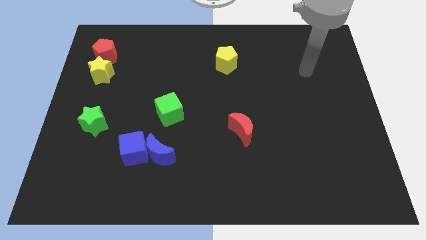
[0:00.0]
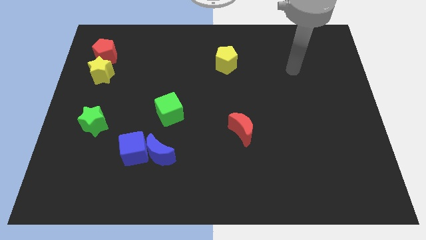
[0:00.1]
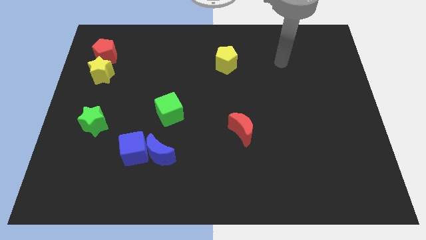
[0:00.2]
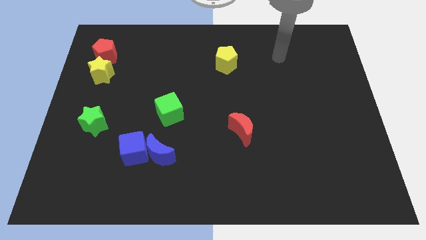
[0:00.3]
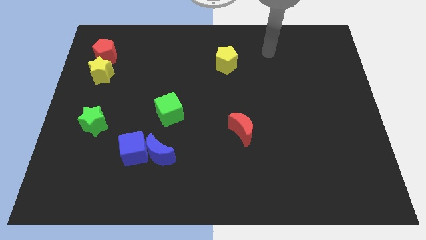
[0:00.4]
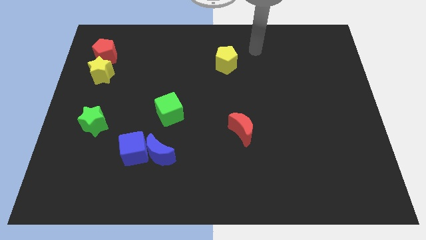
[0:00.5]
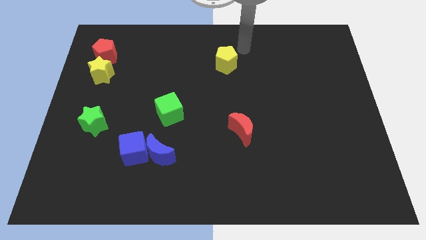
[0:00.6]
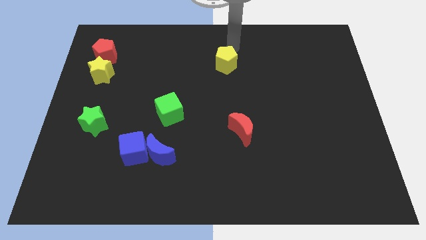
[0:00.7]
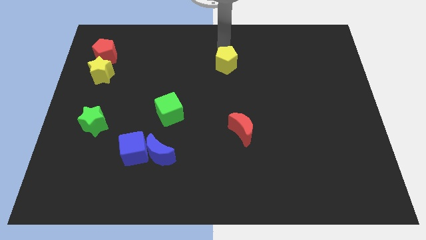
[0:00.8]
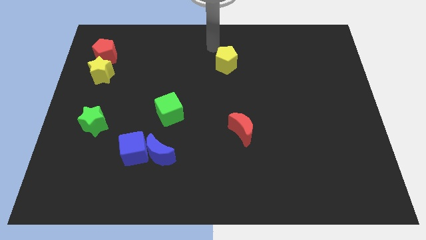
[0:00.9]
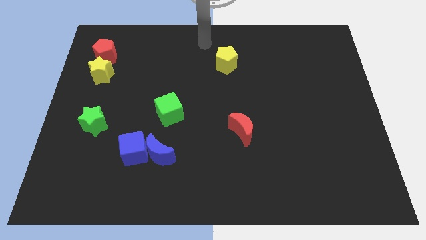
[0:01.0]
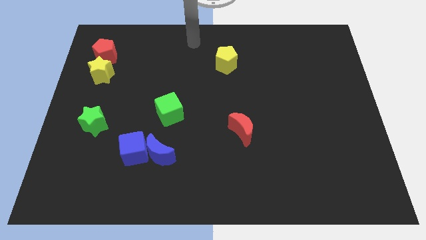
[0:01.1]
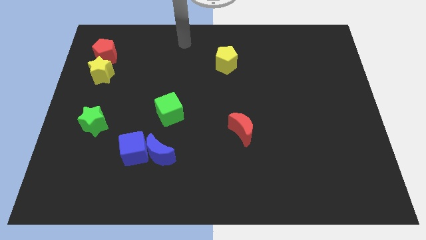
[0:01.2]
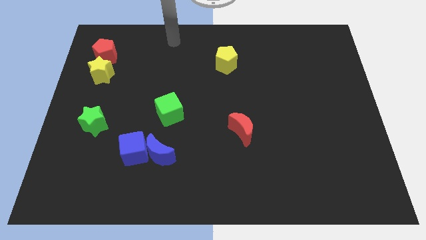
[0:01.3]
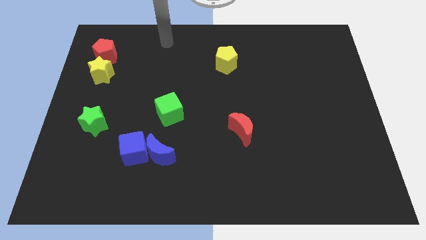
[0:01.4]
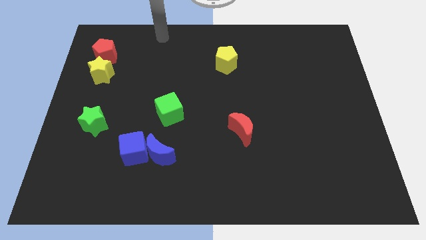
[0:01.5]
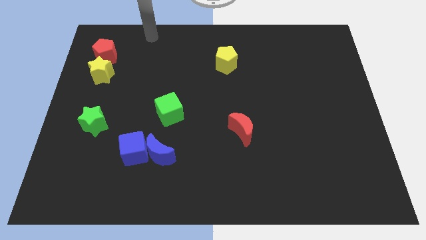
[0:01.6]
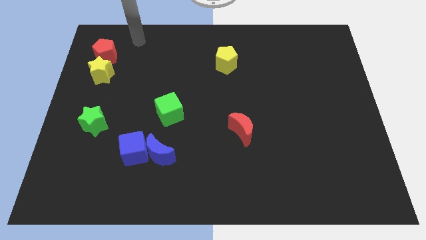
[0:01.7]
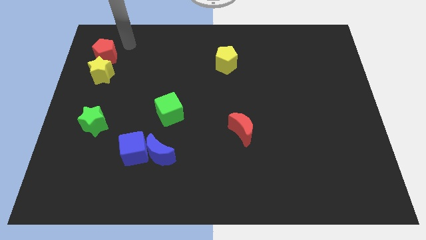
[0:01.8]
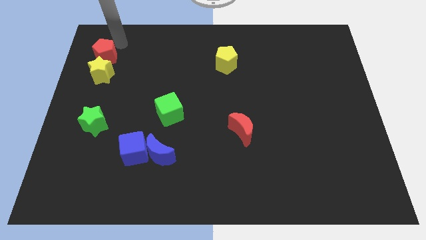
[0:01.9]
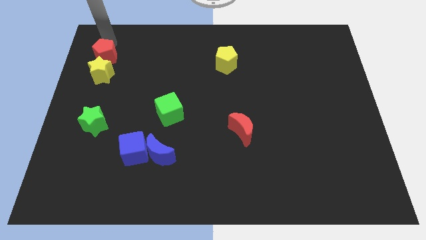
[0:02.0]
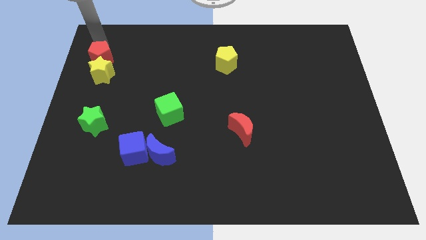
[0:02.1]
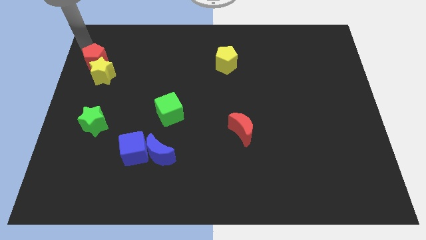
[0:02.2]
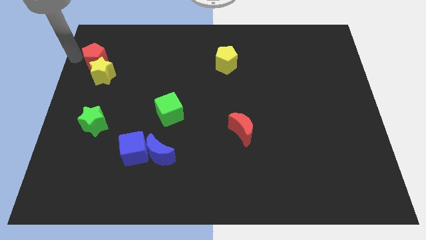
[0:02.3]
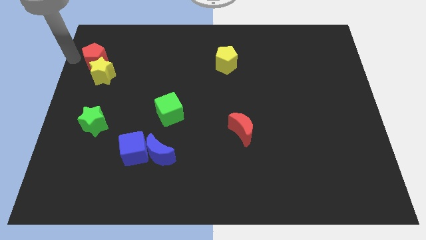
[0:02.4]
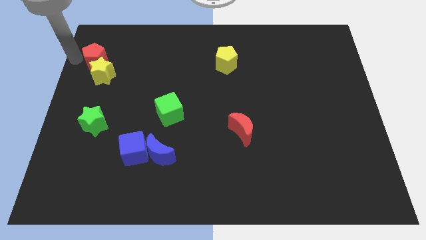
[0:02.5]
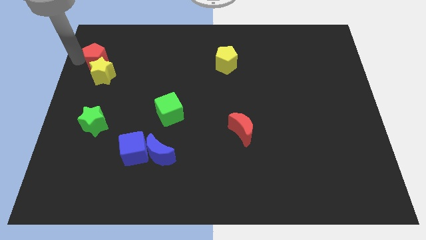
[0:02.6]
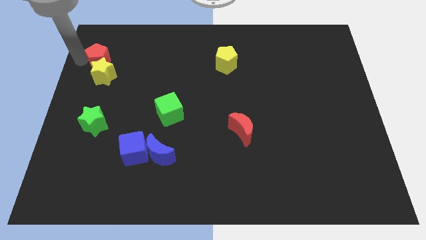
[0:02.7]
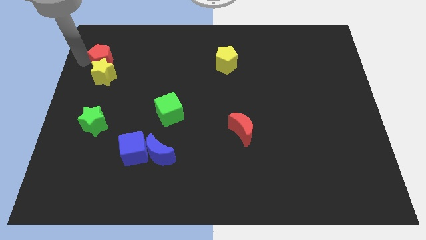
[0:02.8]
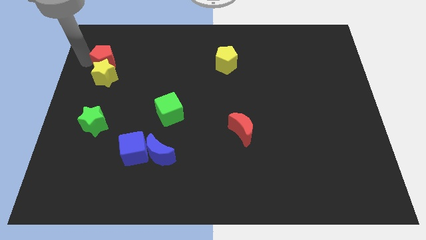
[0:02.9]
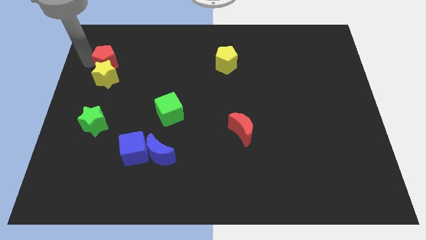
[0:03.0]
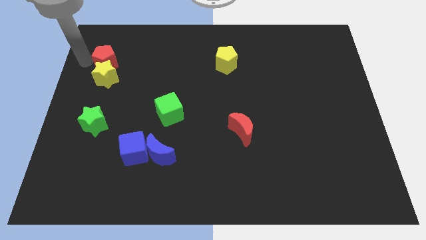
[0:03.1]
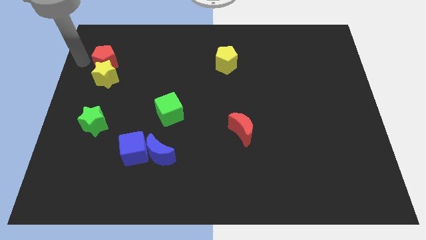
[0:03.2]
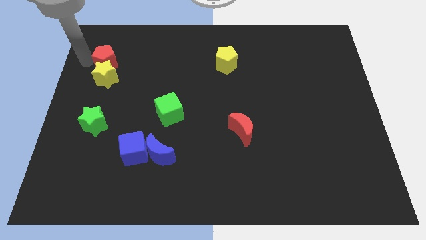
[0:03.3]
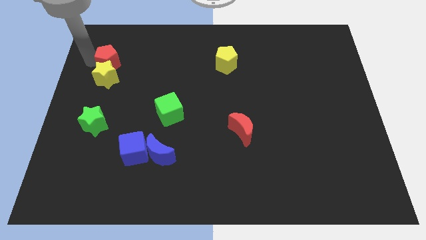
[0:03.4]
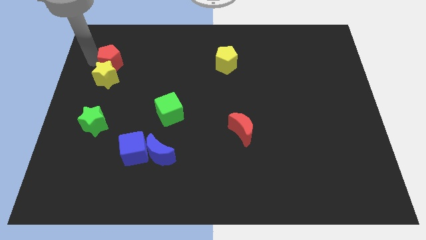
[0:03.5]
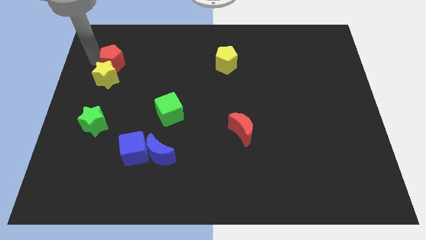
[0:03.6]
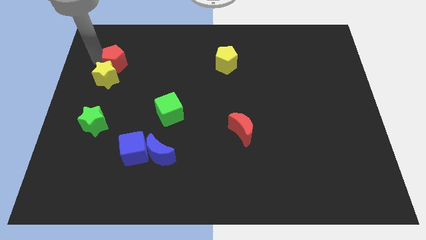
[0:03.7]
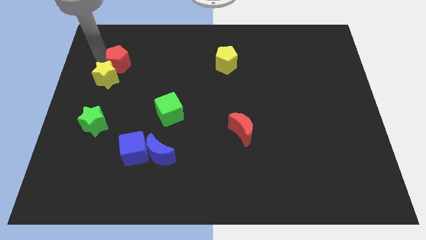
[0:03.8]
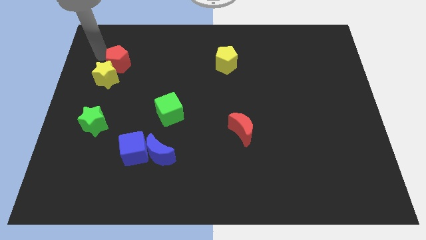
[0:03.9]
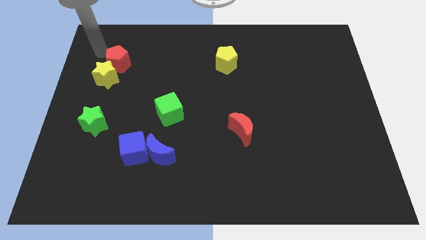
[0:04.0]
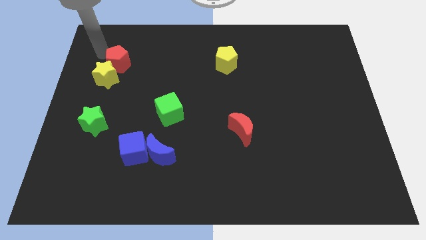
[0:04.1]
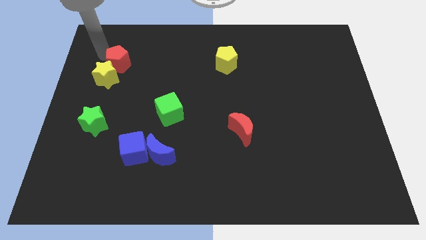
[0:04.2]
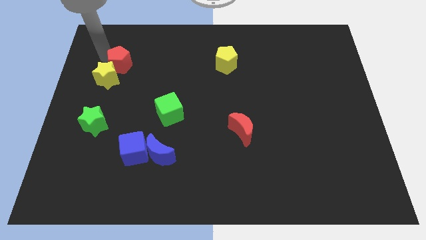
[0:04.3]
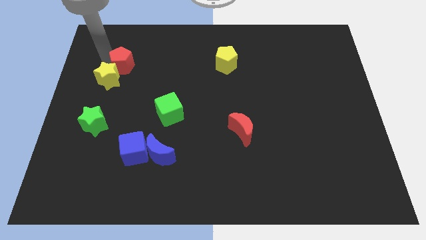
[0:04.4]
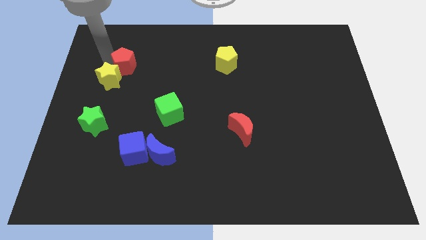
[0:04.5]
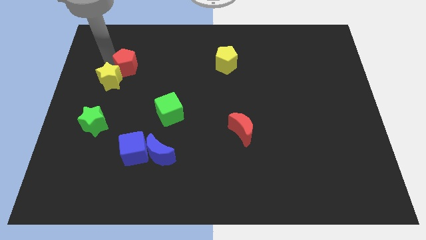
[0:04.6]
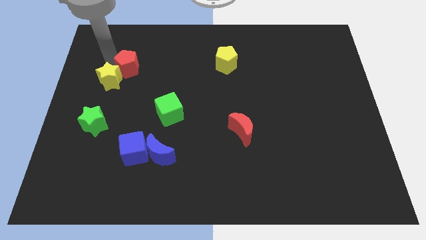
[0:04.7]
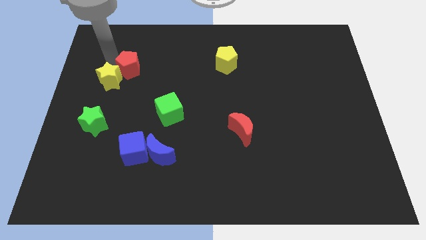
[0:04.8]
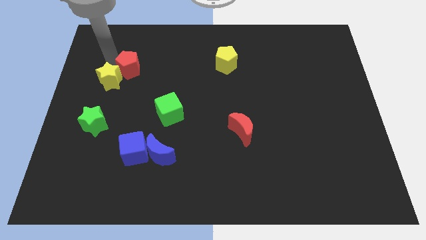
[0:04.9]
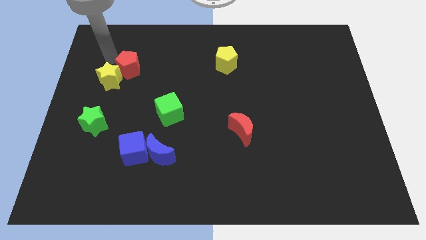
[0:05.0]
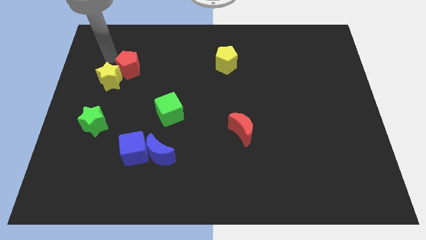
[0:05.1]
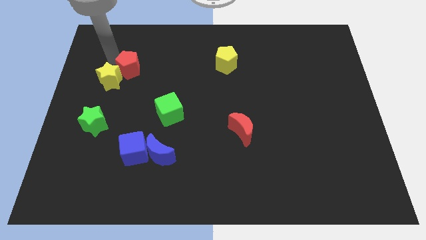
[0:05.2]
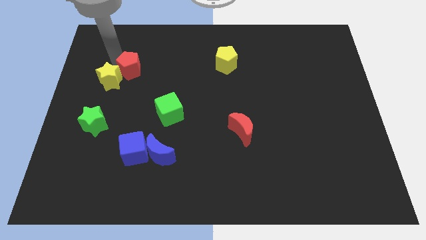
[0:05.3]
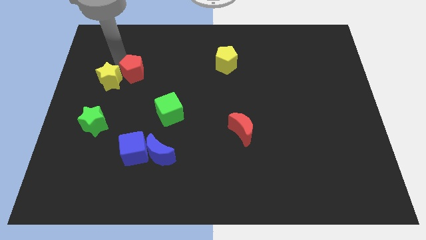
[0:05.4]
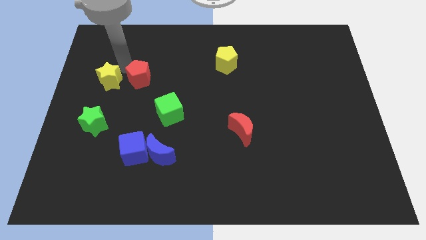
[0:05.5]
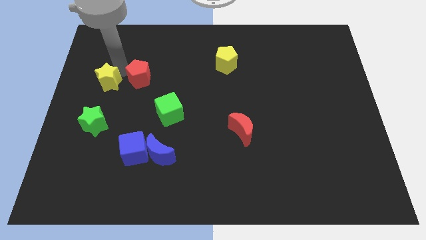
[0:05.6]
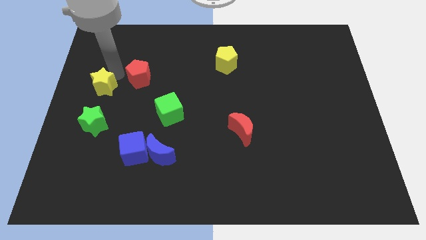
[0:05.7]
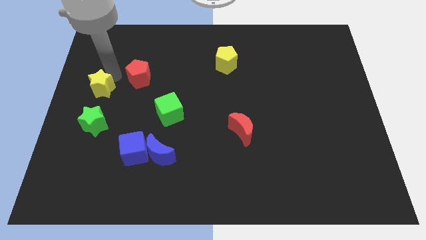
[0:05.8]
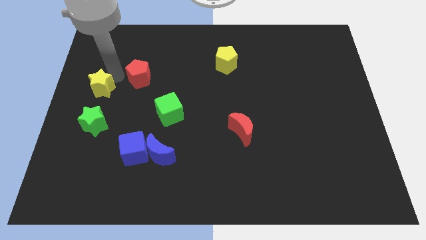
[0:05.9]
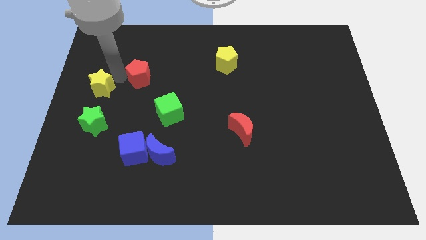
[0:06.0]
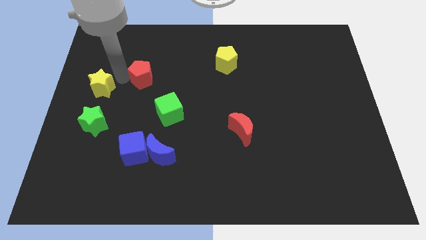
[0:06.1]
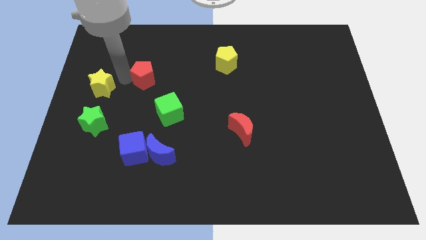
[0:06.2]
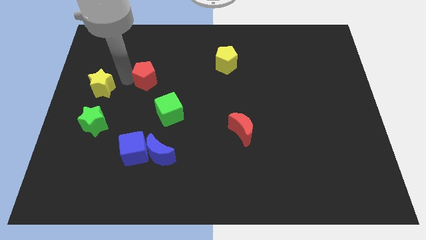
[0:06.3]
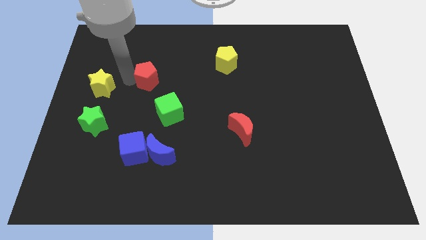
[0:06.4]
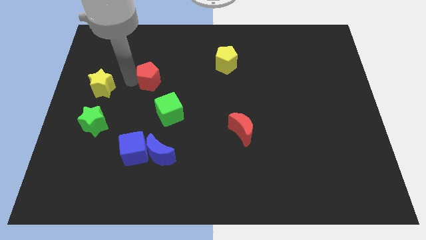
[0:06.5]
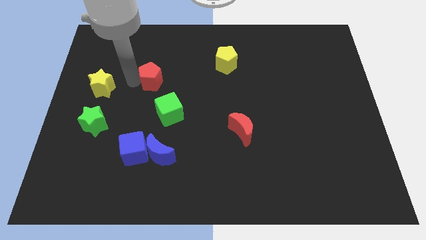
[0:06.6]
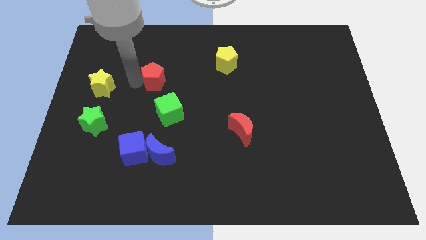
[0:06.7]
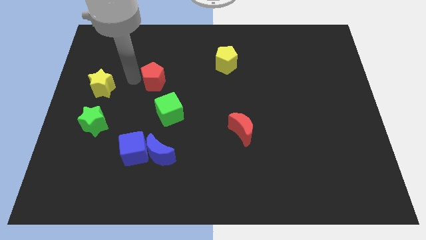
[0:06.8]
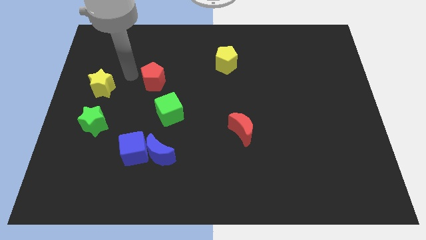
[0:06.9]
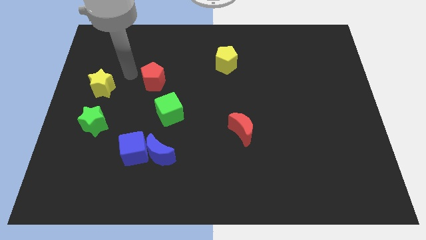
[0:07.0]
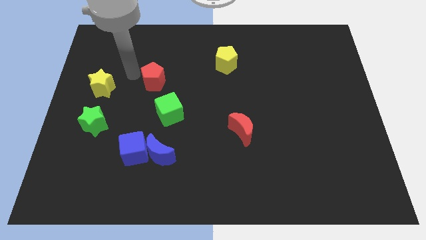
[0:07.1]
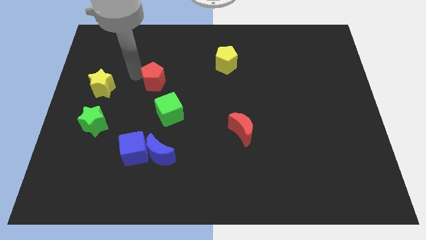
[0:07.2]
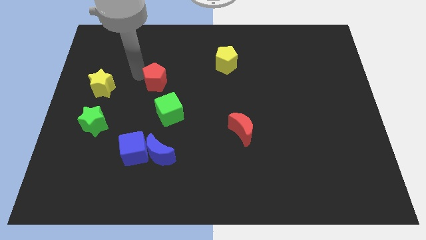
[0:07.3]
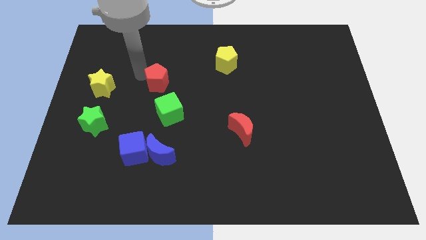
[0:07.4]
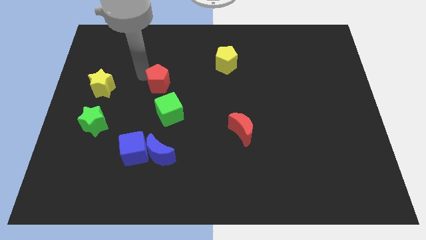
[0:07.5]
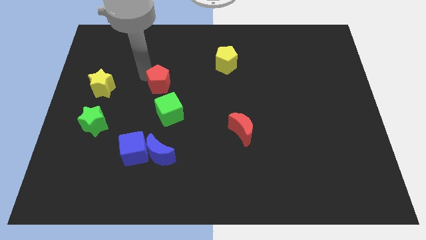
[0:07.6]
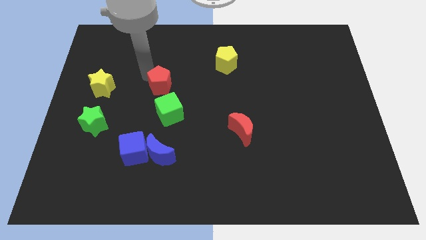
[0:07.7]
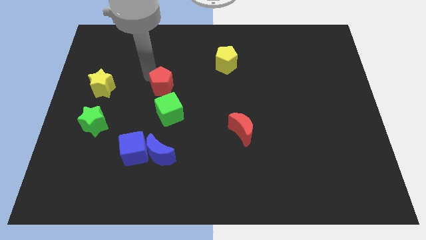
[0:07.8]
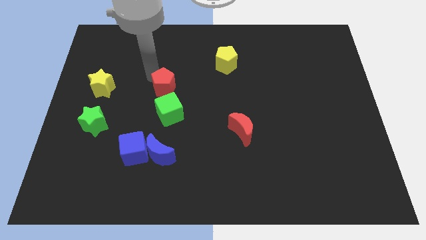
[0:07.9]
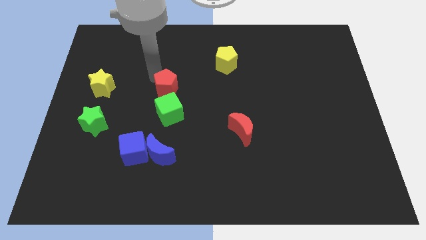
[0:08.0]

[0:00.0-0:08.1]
put the red pentagon to the center of the board
